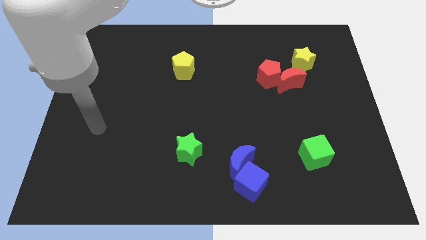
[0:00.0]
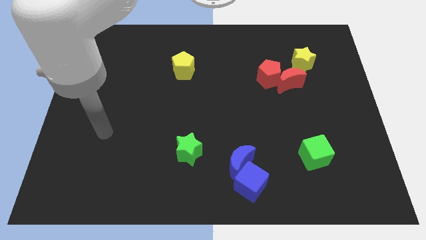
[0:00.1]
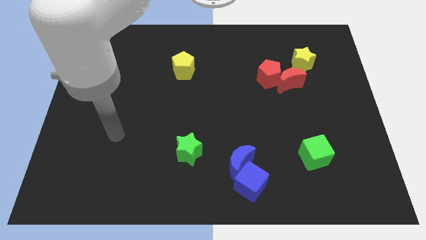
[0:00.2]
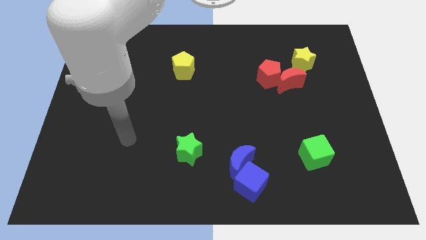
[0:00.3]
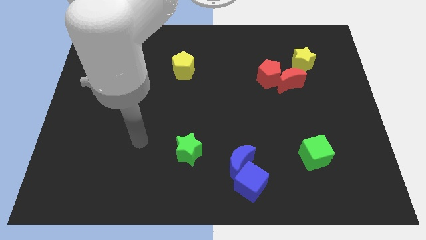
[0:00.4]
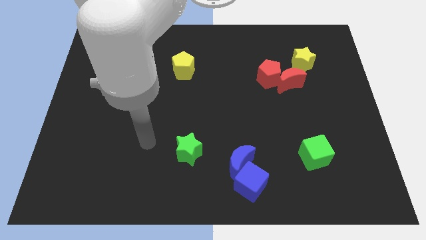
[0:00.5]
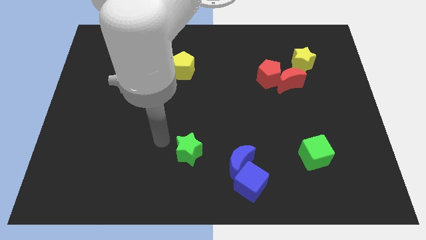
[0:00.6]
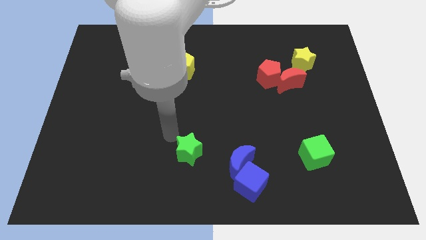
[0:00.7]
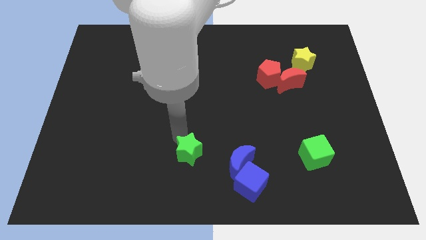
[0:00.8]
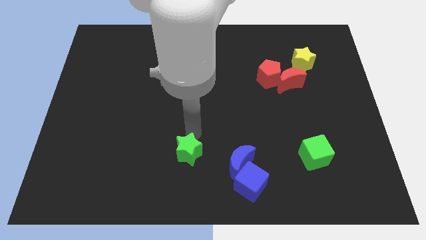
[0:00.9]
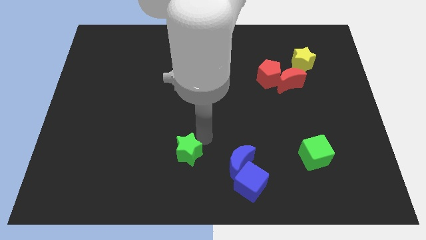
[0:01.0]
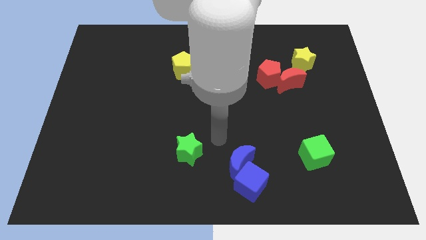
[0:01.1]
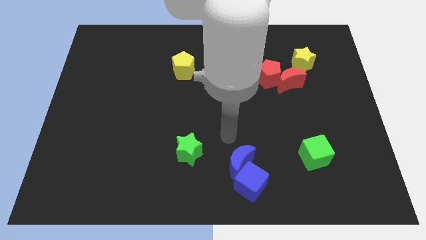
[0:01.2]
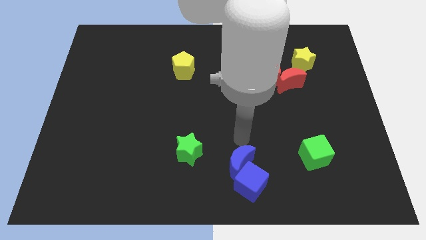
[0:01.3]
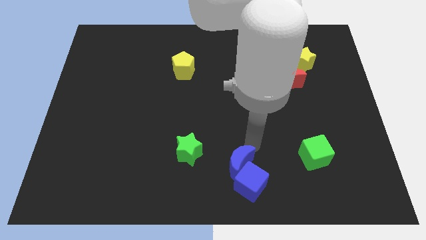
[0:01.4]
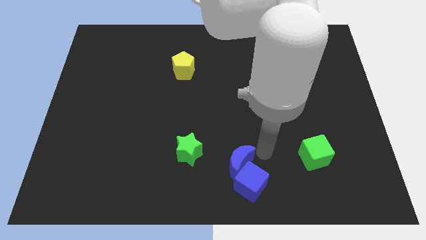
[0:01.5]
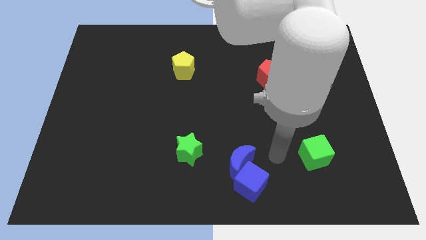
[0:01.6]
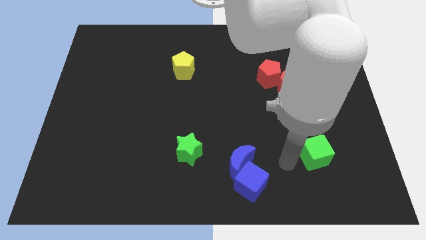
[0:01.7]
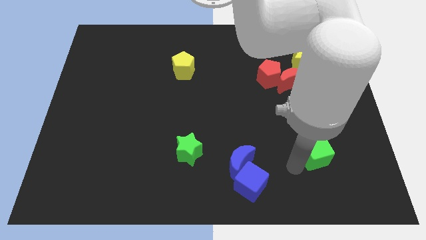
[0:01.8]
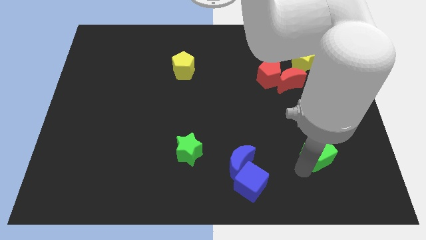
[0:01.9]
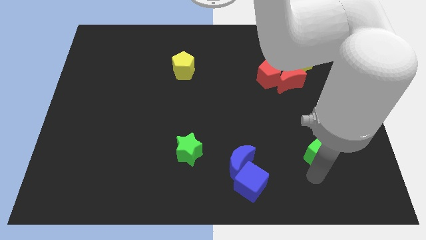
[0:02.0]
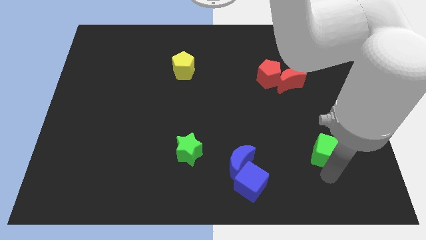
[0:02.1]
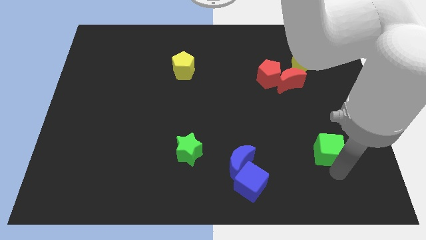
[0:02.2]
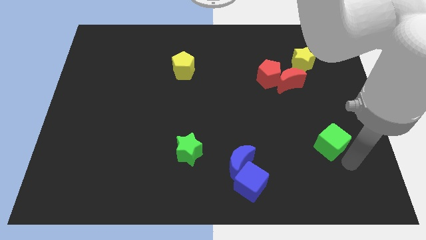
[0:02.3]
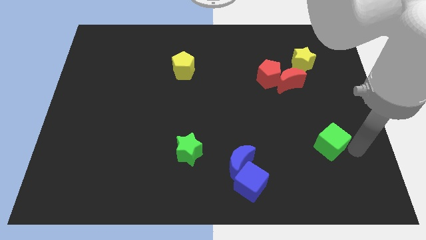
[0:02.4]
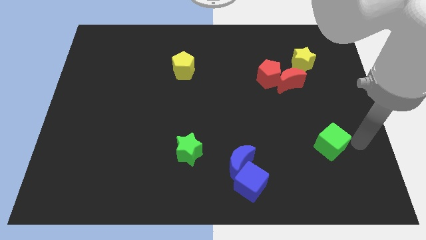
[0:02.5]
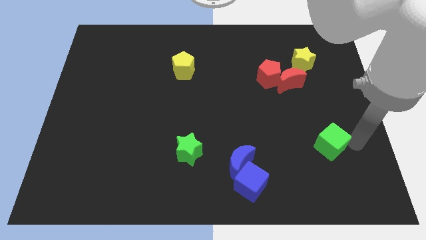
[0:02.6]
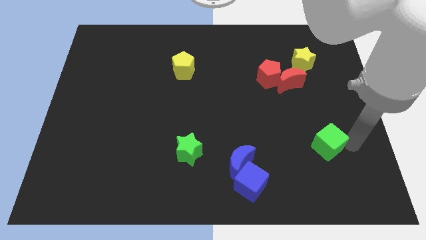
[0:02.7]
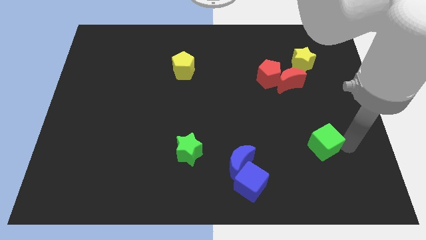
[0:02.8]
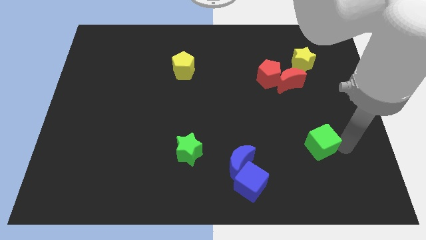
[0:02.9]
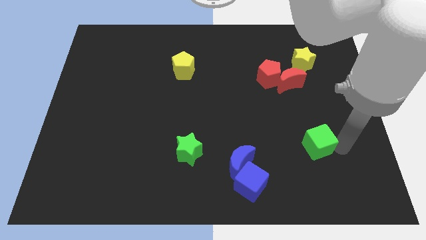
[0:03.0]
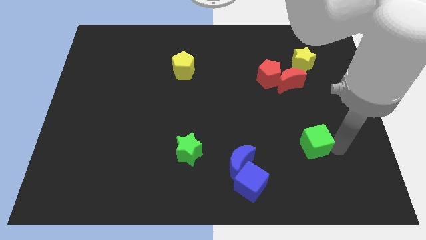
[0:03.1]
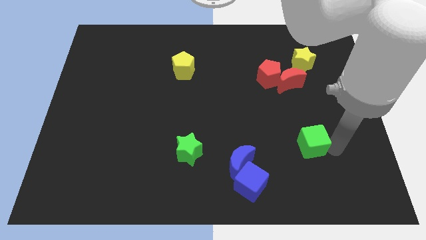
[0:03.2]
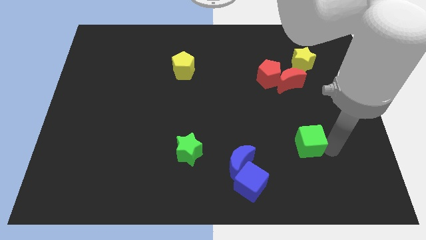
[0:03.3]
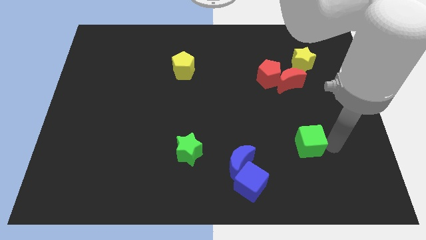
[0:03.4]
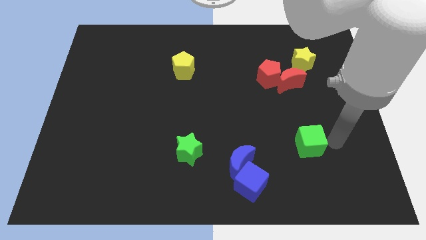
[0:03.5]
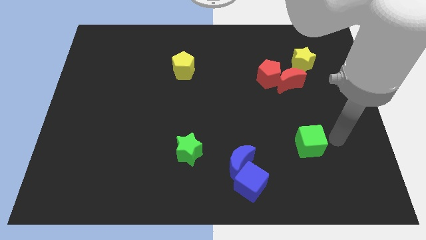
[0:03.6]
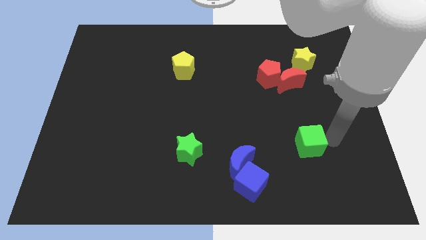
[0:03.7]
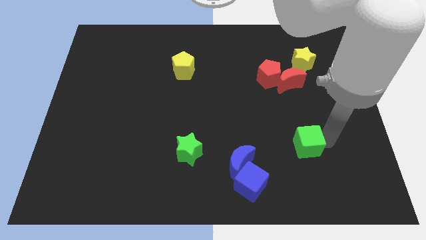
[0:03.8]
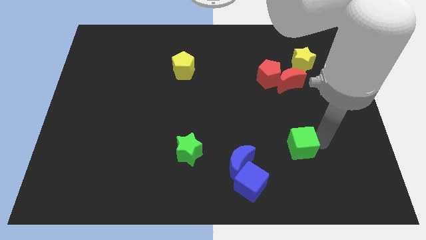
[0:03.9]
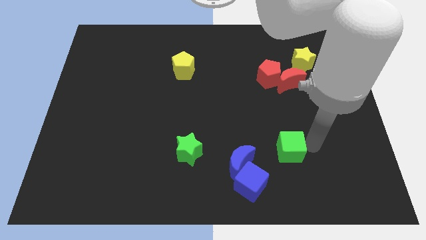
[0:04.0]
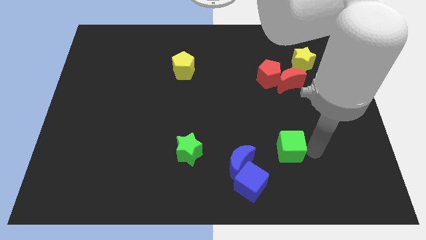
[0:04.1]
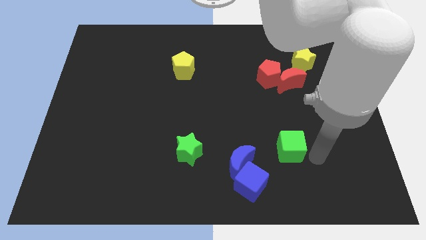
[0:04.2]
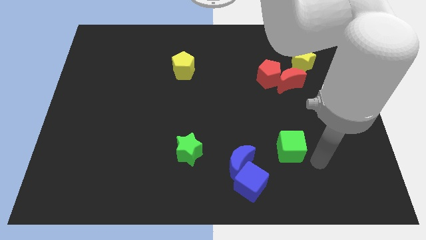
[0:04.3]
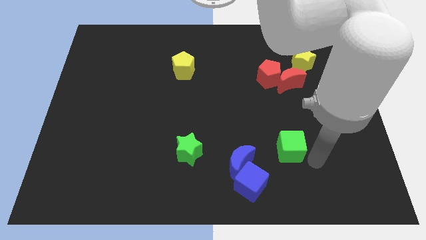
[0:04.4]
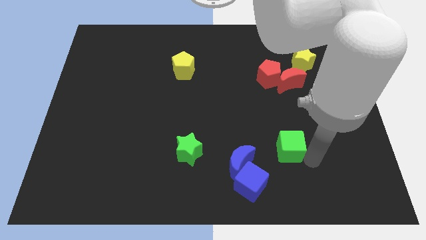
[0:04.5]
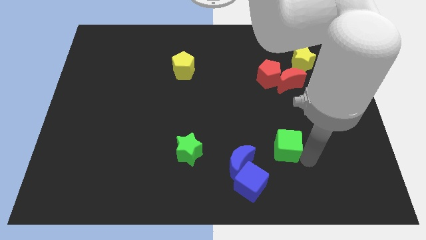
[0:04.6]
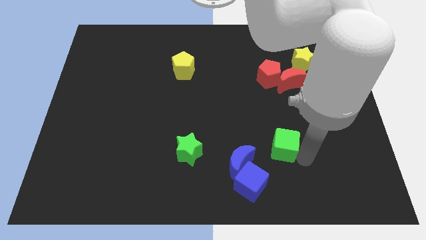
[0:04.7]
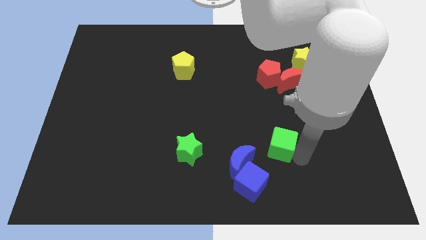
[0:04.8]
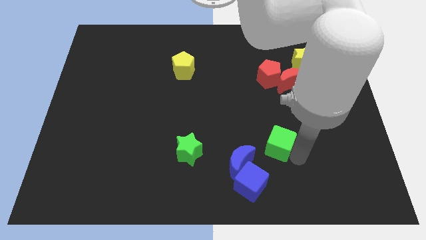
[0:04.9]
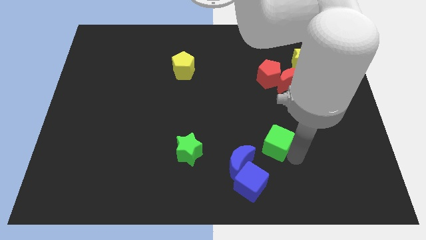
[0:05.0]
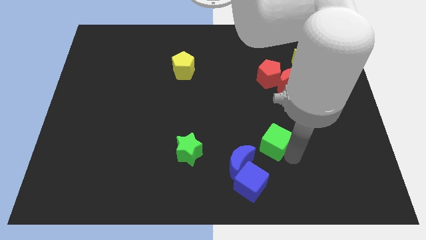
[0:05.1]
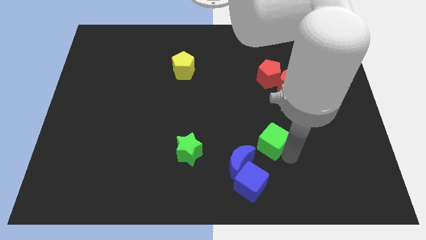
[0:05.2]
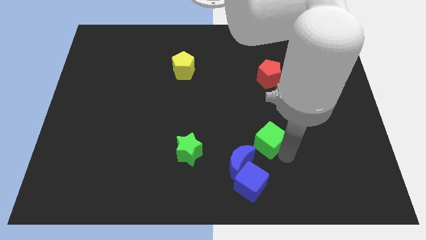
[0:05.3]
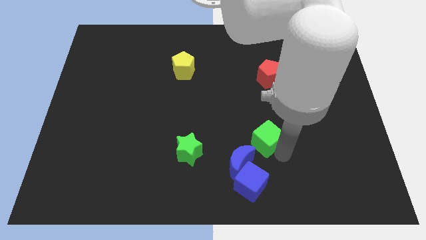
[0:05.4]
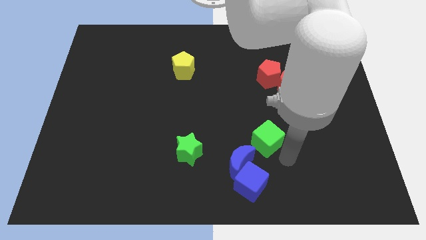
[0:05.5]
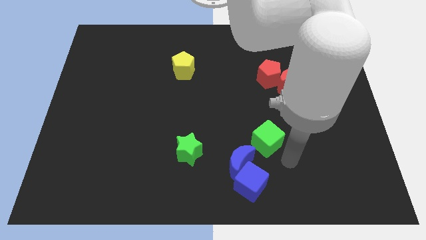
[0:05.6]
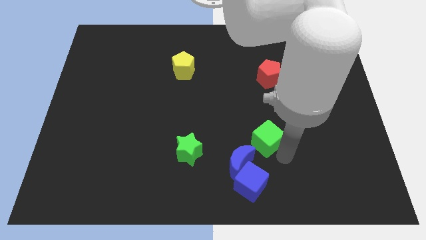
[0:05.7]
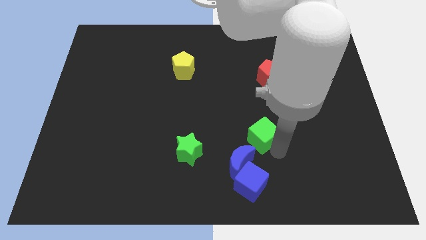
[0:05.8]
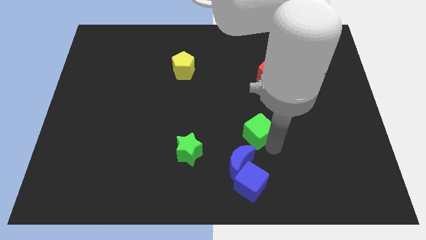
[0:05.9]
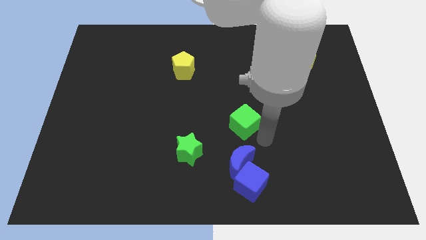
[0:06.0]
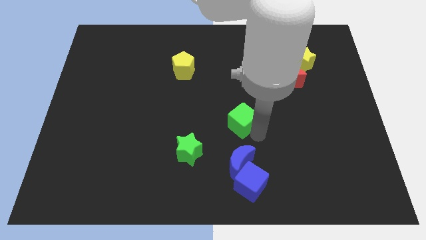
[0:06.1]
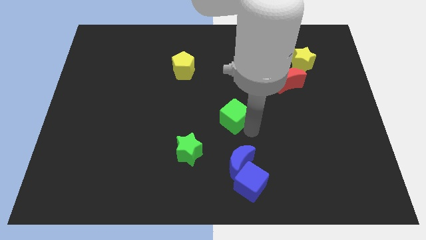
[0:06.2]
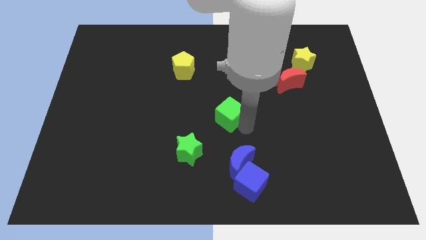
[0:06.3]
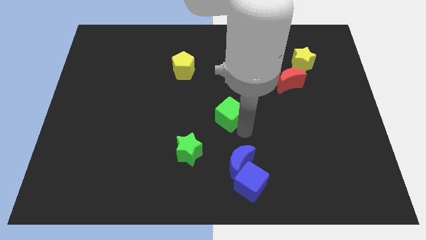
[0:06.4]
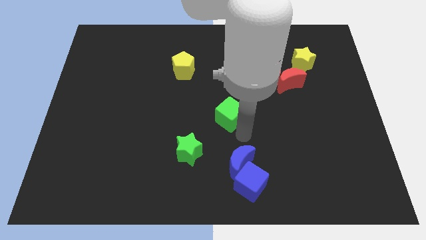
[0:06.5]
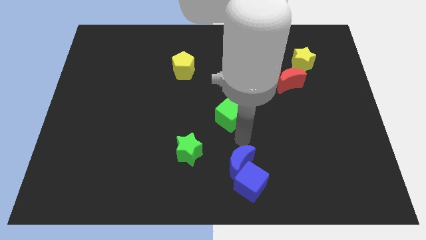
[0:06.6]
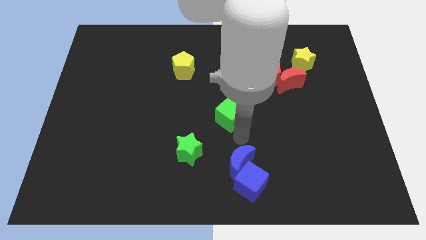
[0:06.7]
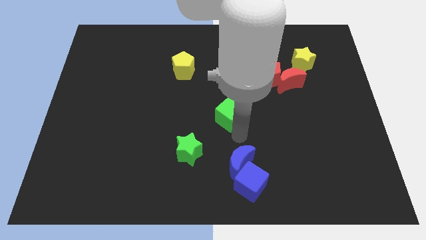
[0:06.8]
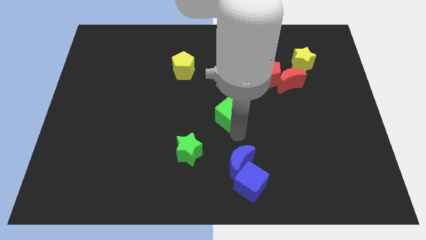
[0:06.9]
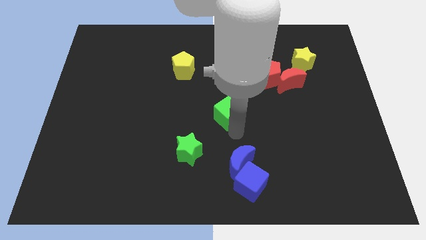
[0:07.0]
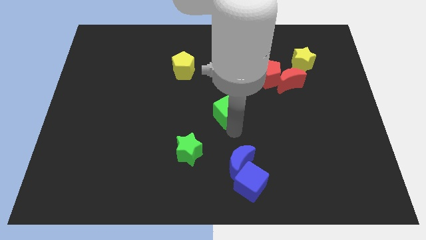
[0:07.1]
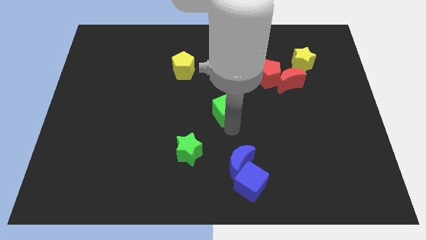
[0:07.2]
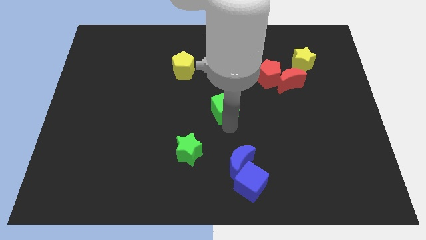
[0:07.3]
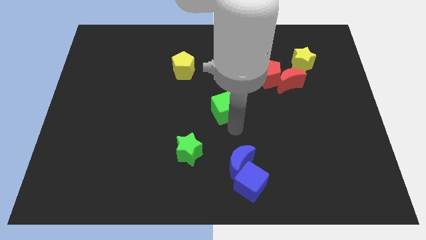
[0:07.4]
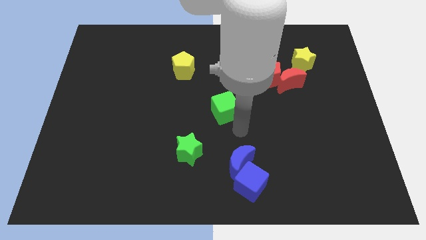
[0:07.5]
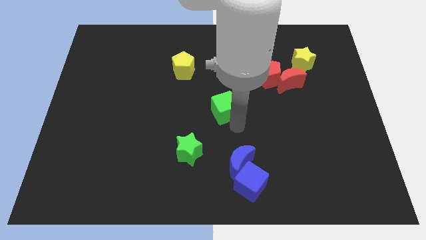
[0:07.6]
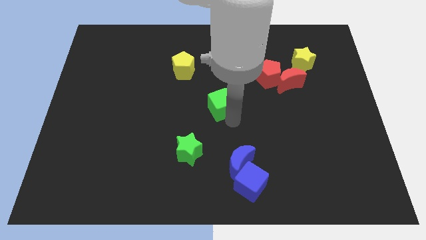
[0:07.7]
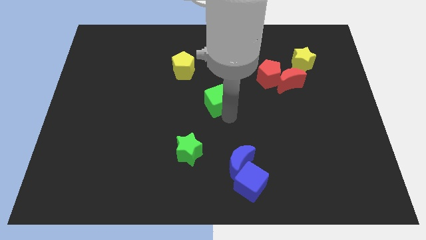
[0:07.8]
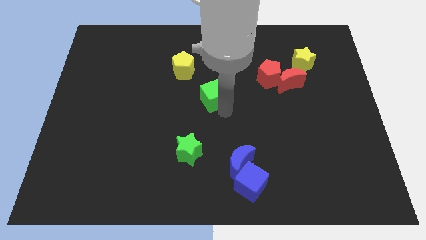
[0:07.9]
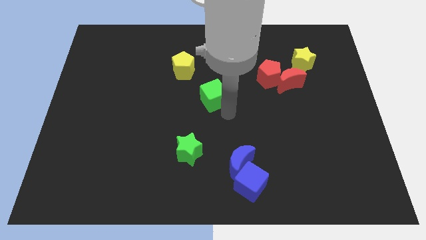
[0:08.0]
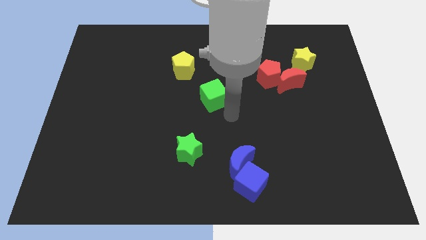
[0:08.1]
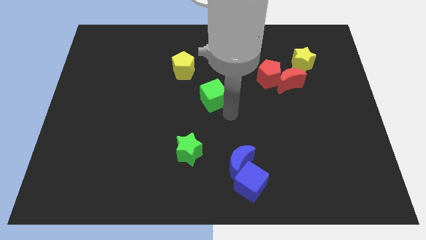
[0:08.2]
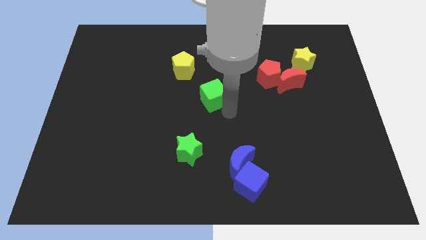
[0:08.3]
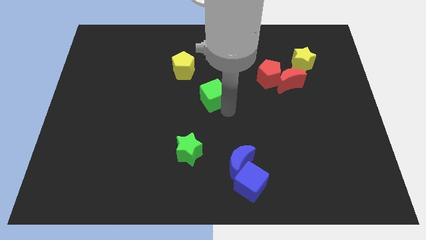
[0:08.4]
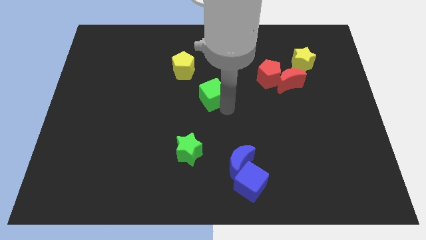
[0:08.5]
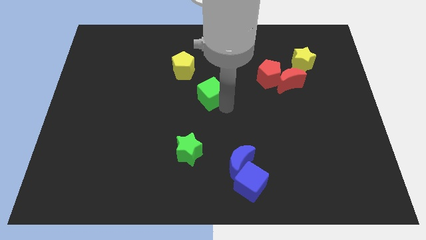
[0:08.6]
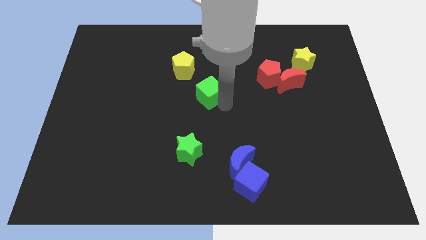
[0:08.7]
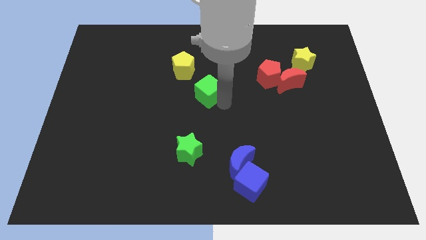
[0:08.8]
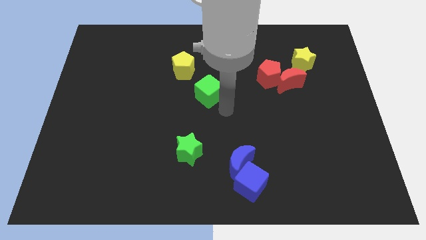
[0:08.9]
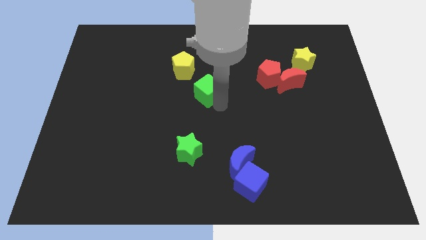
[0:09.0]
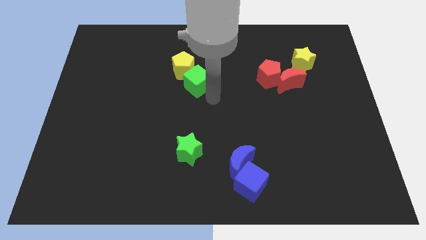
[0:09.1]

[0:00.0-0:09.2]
move the green cube to the yellow pentagon
